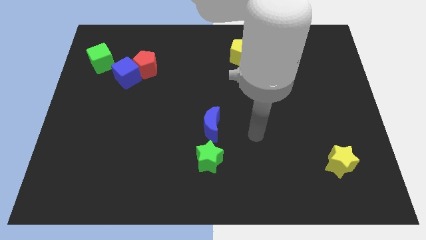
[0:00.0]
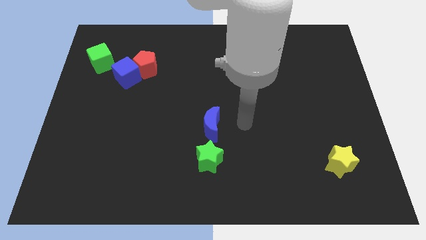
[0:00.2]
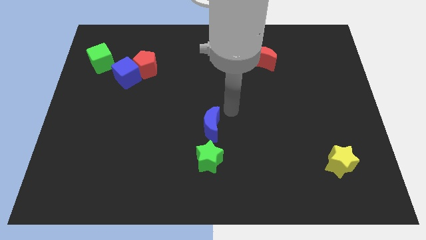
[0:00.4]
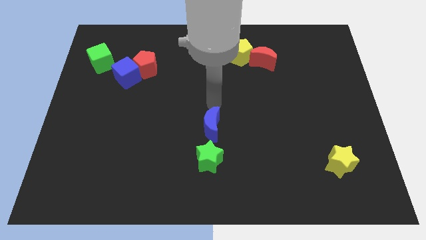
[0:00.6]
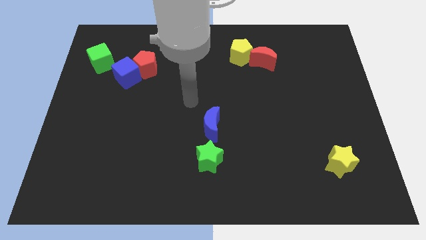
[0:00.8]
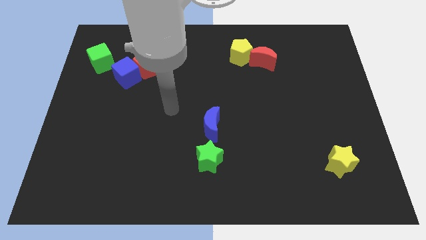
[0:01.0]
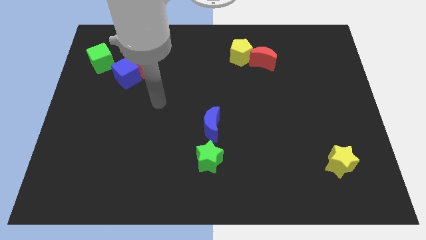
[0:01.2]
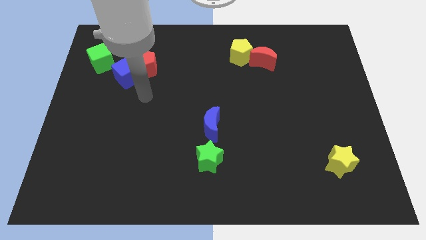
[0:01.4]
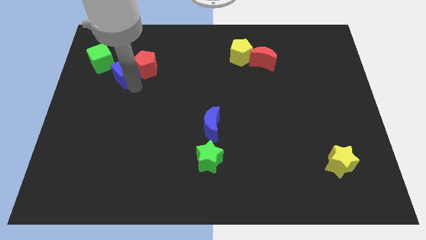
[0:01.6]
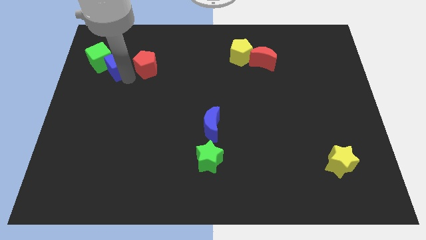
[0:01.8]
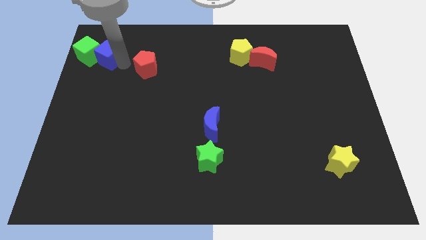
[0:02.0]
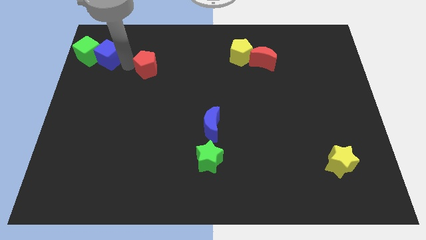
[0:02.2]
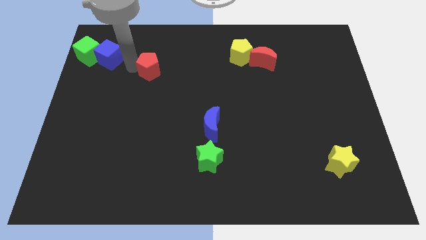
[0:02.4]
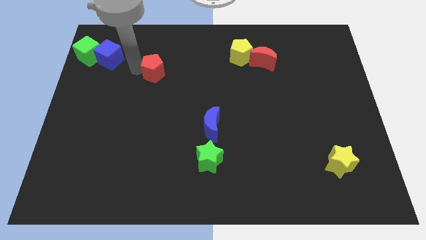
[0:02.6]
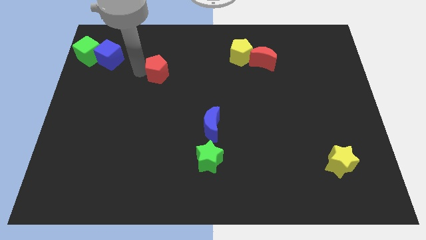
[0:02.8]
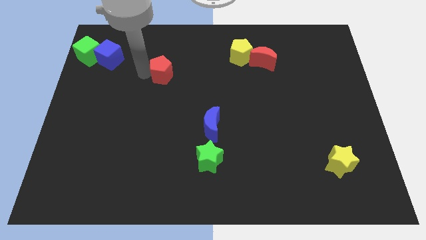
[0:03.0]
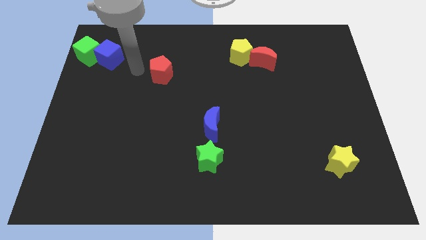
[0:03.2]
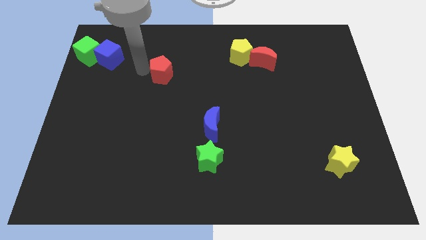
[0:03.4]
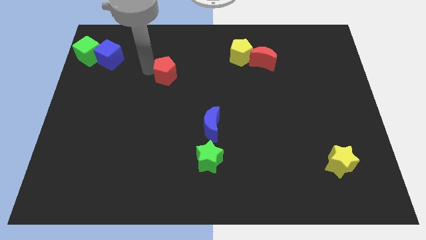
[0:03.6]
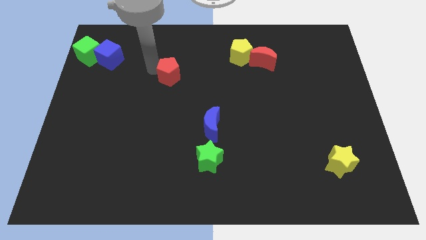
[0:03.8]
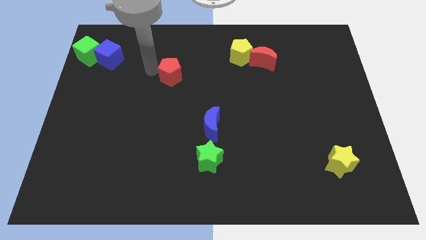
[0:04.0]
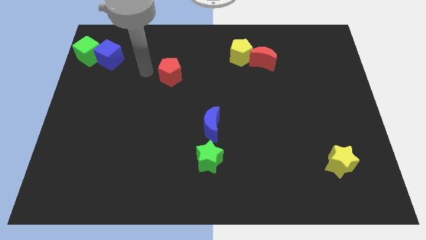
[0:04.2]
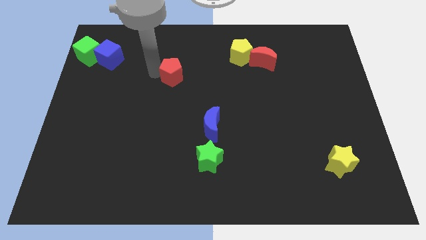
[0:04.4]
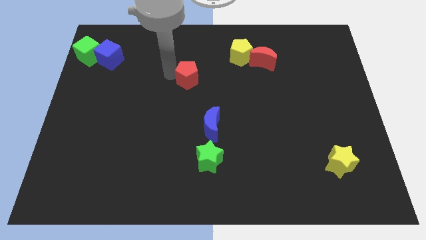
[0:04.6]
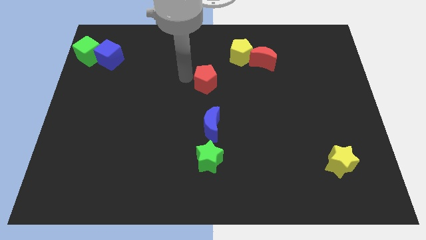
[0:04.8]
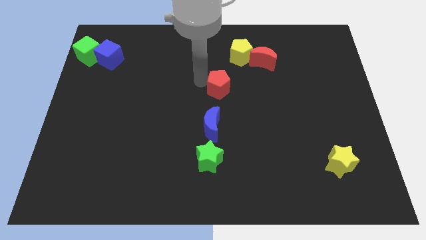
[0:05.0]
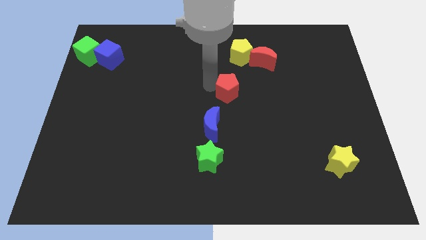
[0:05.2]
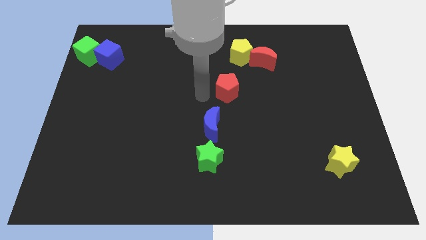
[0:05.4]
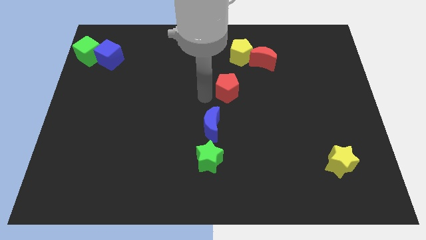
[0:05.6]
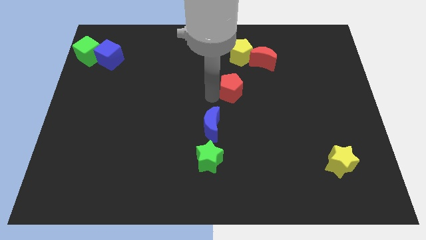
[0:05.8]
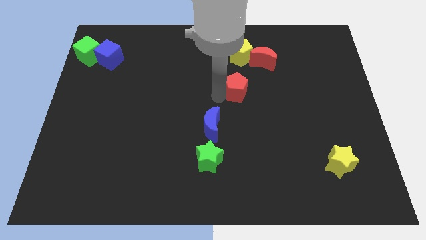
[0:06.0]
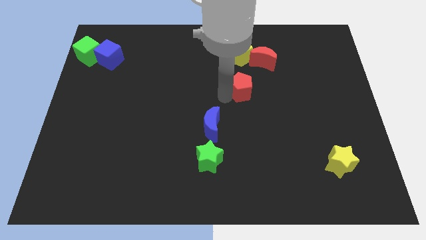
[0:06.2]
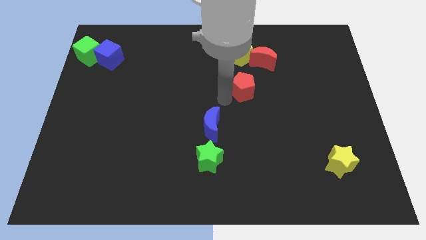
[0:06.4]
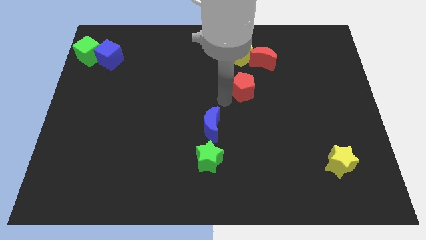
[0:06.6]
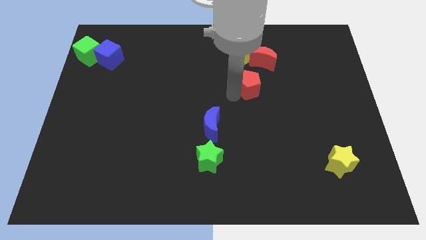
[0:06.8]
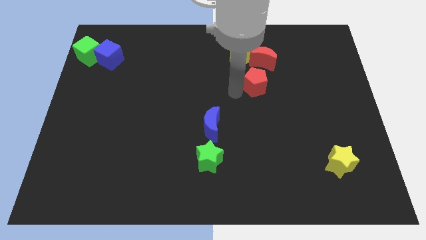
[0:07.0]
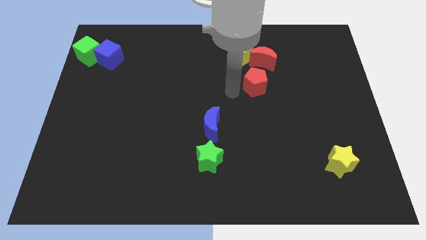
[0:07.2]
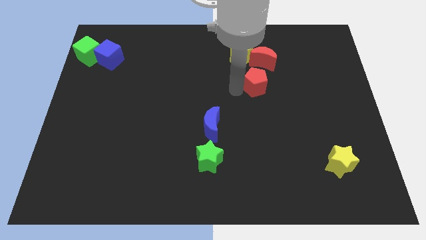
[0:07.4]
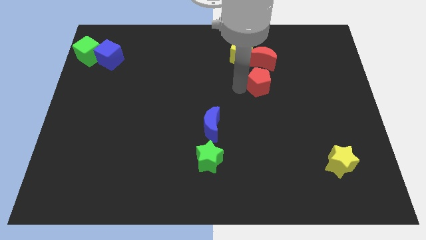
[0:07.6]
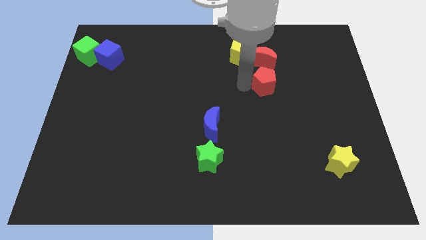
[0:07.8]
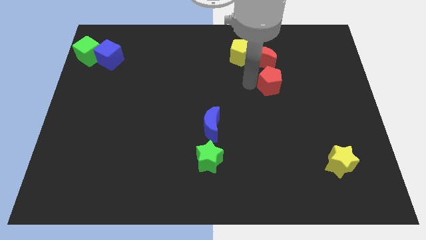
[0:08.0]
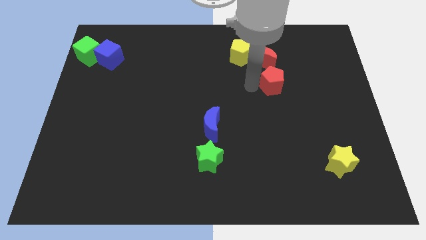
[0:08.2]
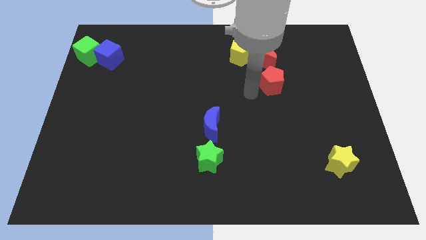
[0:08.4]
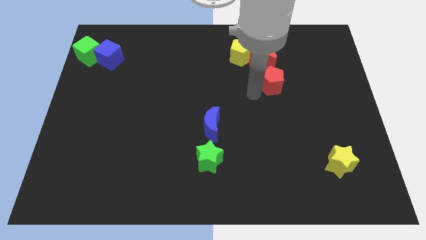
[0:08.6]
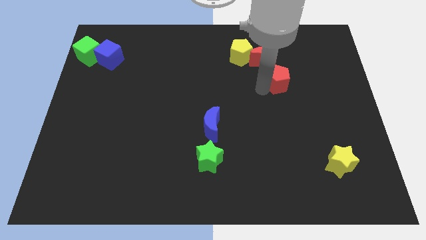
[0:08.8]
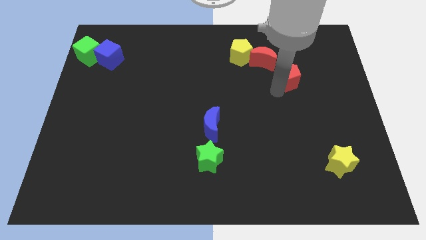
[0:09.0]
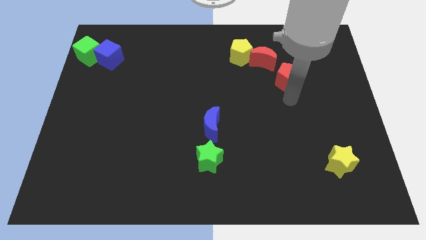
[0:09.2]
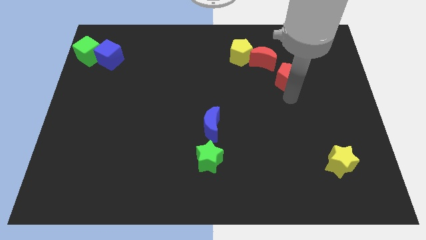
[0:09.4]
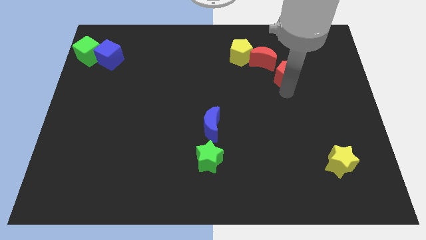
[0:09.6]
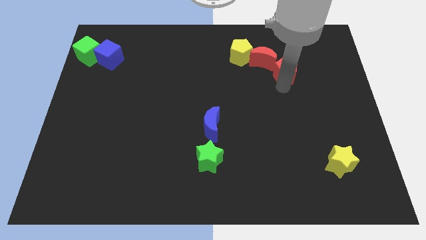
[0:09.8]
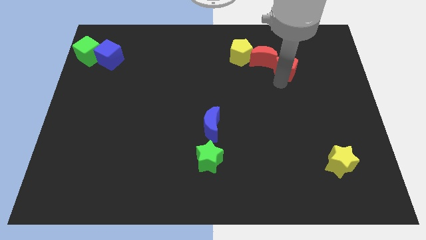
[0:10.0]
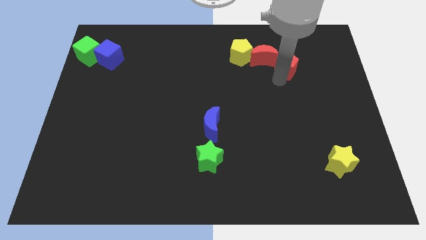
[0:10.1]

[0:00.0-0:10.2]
move the red pentagon to the right side of the yellow pentagon

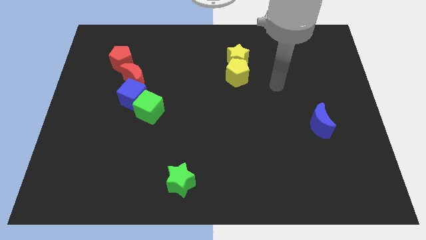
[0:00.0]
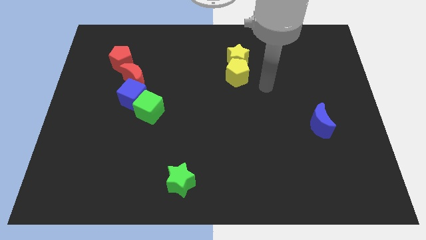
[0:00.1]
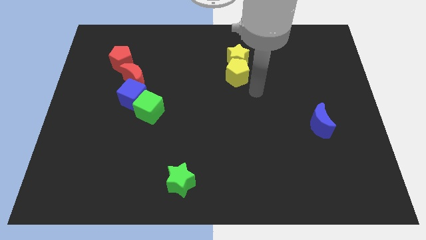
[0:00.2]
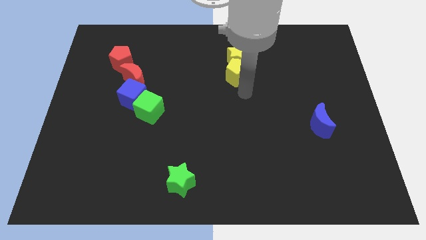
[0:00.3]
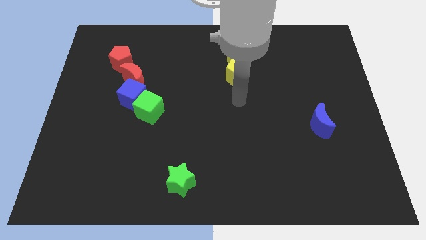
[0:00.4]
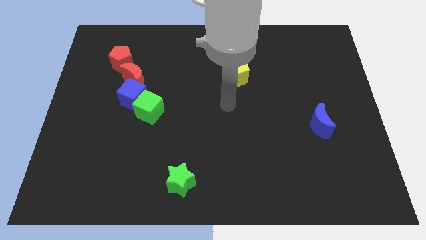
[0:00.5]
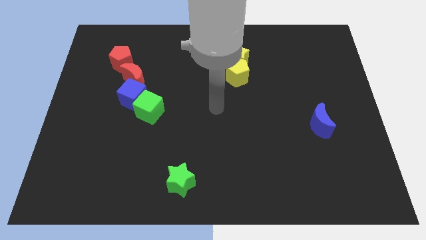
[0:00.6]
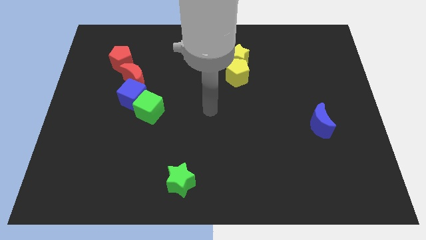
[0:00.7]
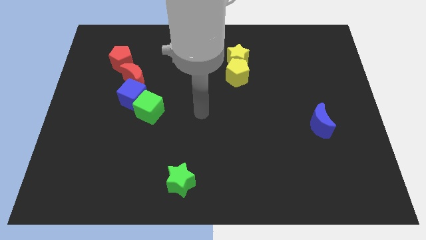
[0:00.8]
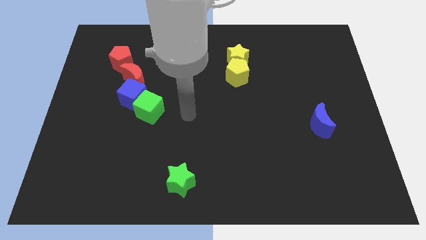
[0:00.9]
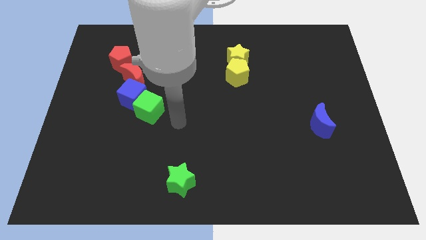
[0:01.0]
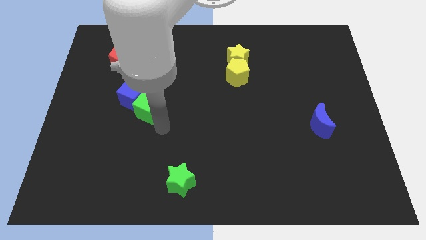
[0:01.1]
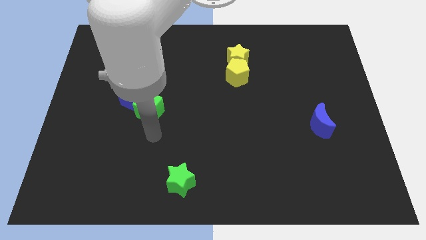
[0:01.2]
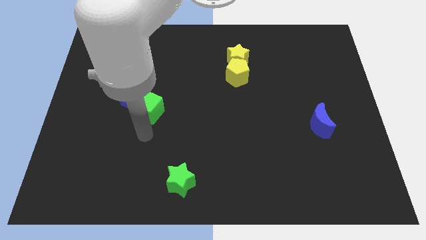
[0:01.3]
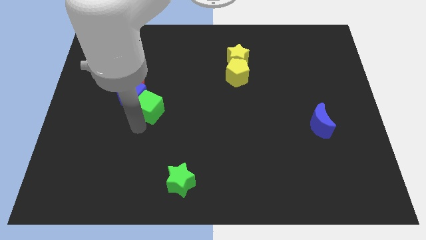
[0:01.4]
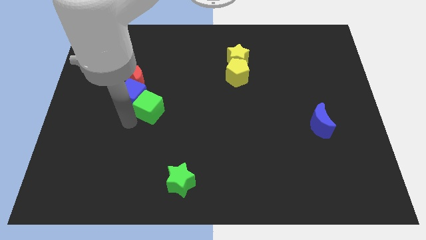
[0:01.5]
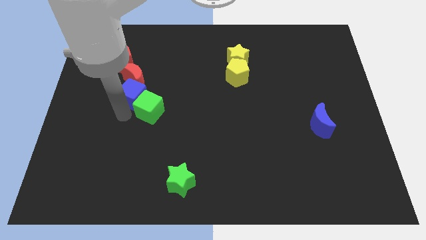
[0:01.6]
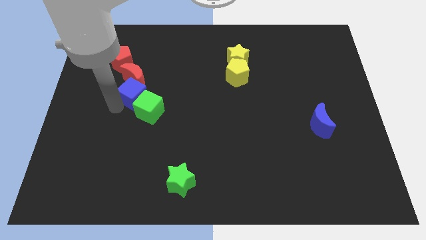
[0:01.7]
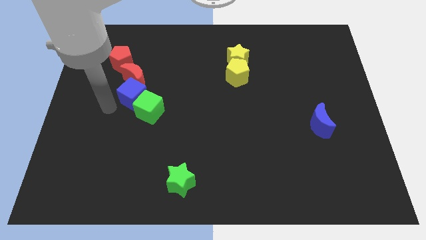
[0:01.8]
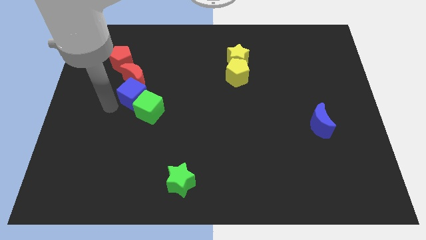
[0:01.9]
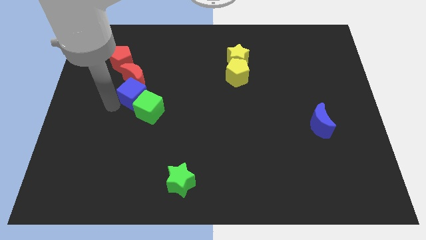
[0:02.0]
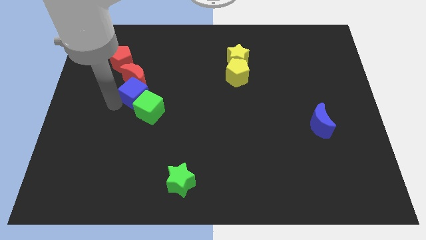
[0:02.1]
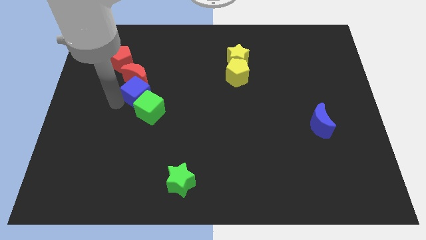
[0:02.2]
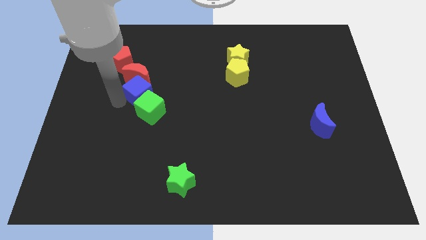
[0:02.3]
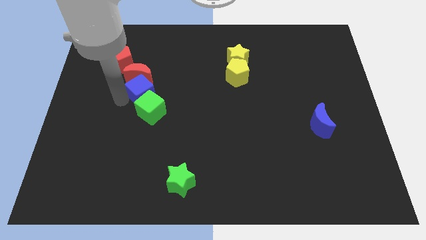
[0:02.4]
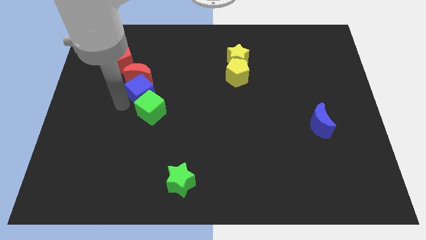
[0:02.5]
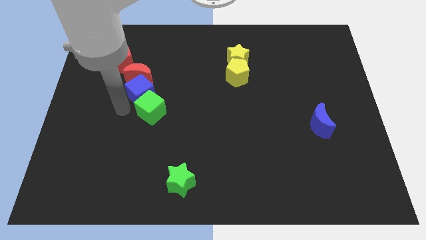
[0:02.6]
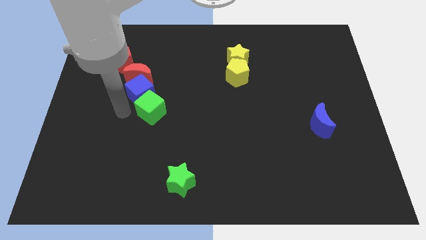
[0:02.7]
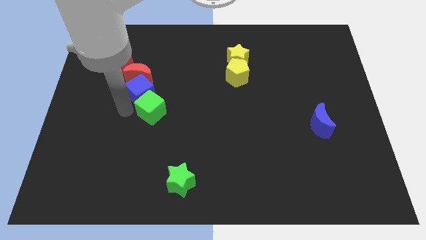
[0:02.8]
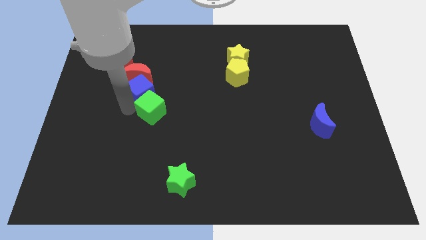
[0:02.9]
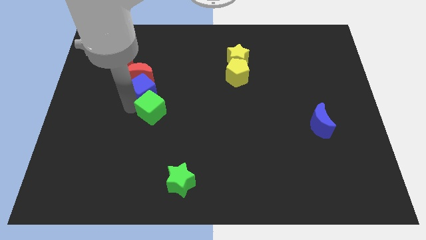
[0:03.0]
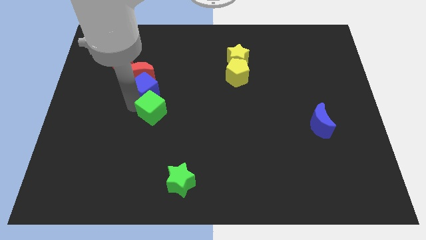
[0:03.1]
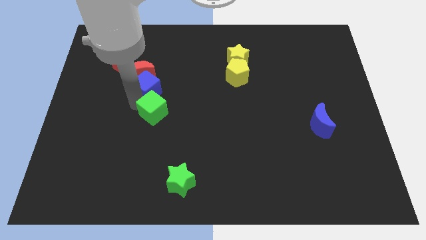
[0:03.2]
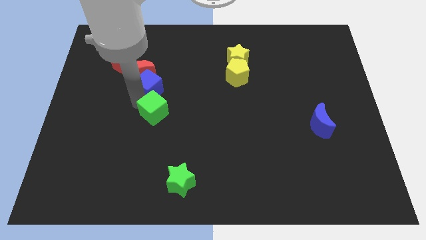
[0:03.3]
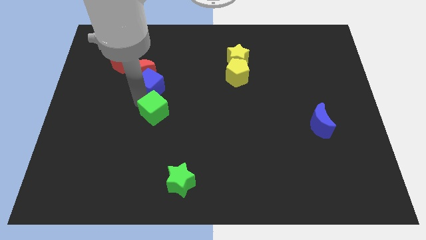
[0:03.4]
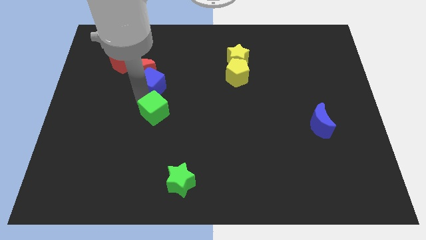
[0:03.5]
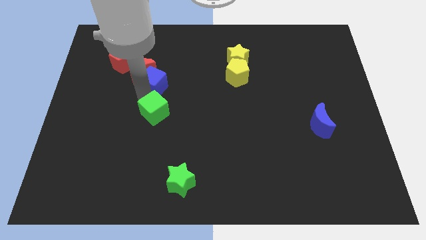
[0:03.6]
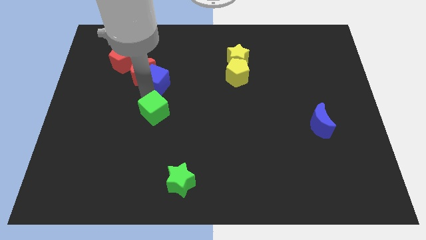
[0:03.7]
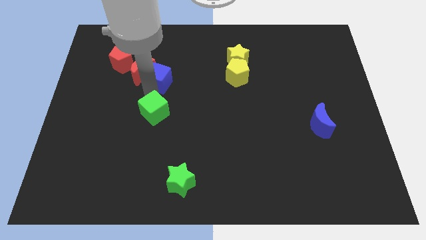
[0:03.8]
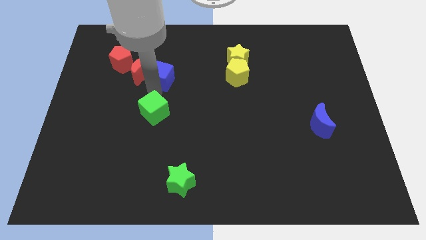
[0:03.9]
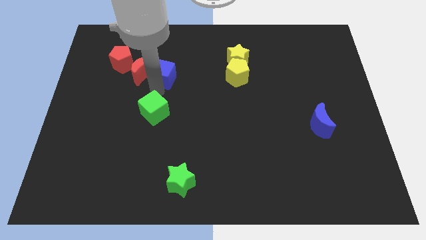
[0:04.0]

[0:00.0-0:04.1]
put the blue cube diagonally up and to the right of the red moon
